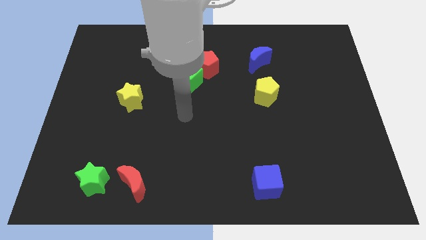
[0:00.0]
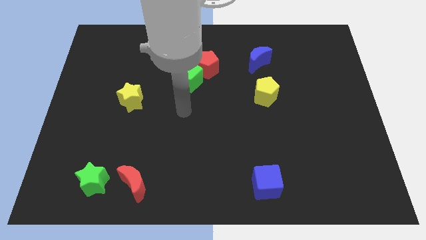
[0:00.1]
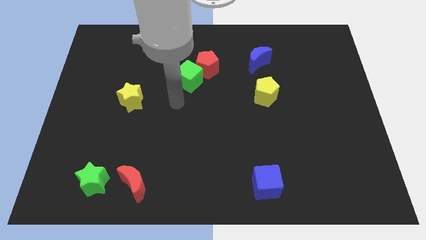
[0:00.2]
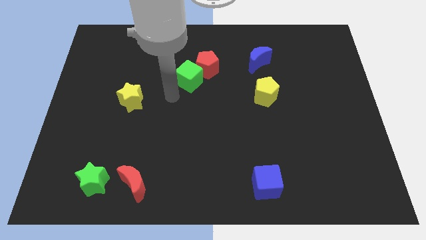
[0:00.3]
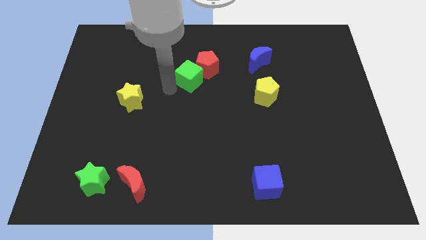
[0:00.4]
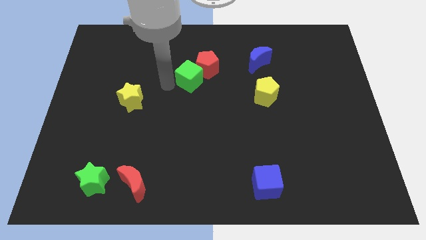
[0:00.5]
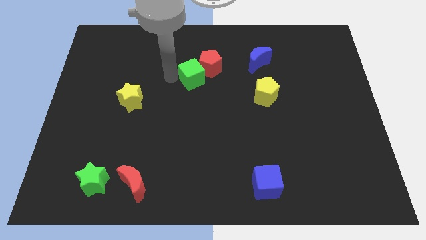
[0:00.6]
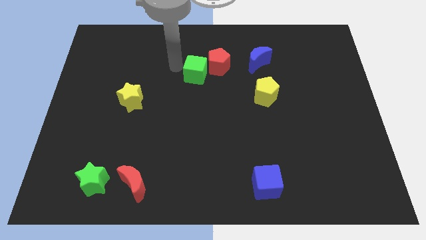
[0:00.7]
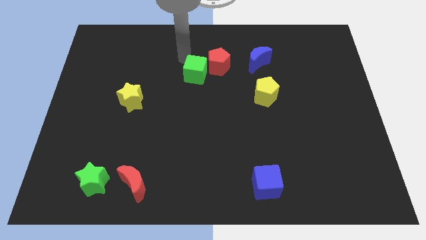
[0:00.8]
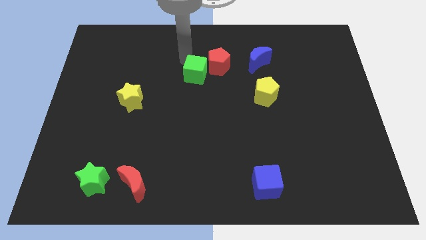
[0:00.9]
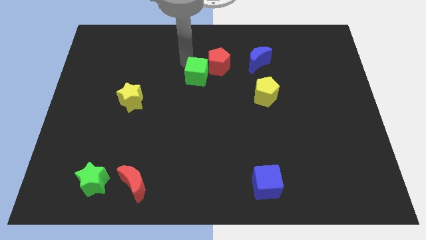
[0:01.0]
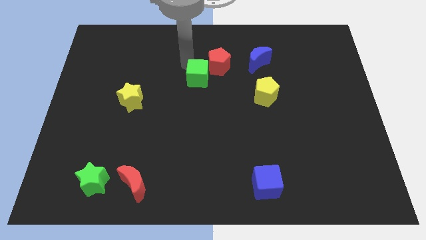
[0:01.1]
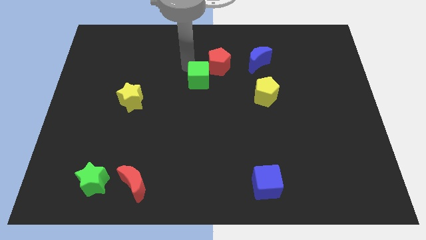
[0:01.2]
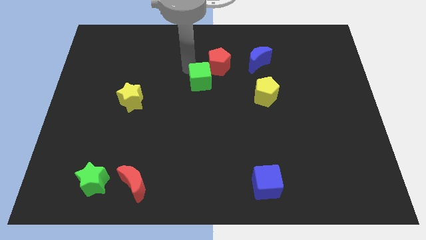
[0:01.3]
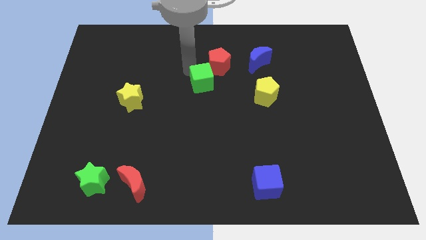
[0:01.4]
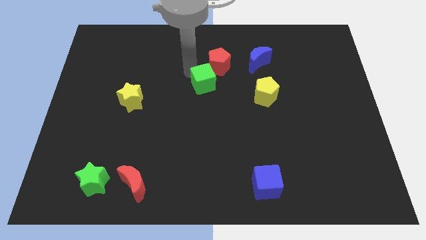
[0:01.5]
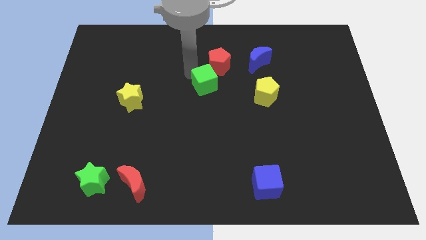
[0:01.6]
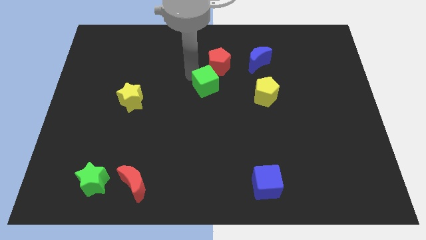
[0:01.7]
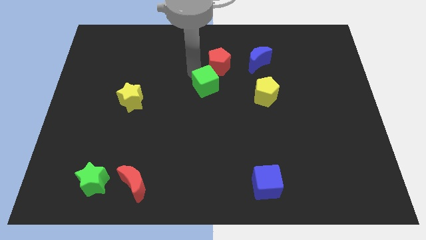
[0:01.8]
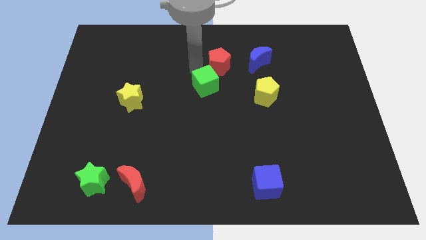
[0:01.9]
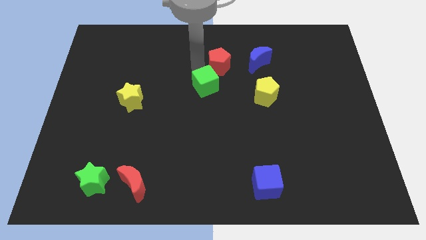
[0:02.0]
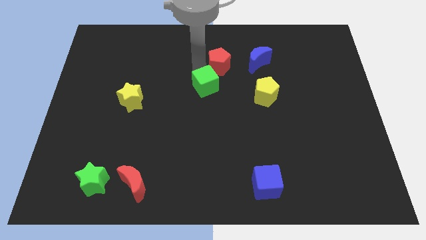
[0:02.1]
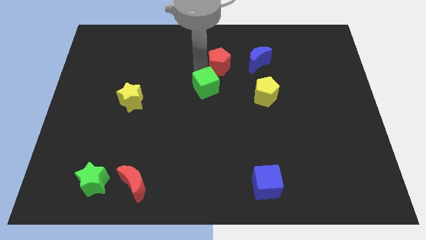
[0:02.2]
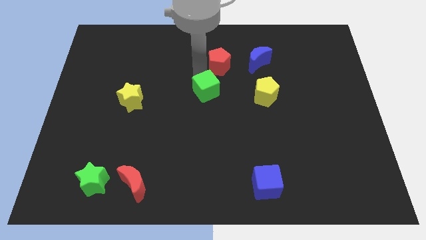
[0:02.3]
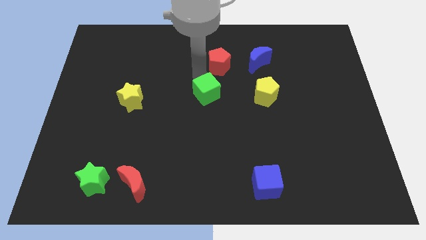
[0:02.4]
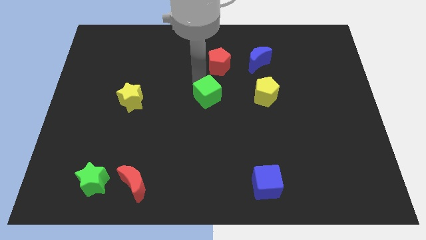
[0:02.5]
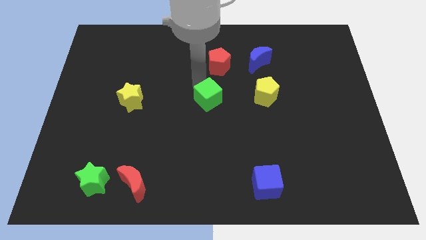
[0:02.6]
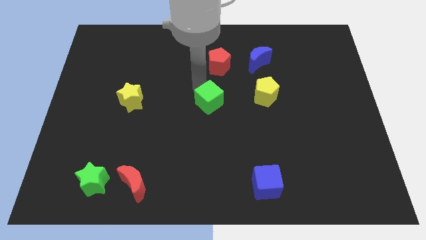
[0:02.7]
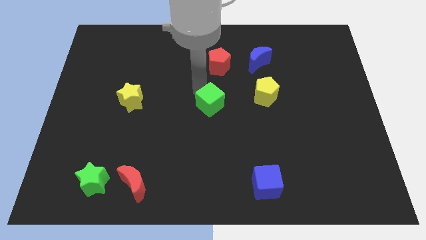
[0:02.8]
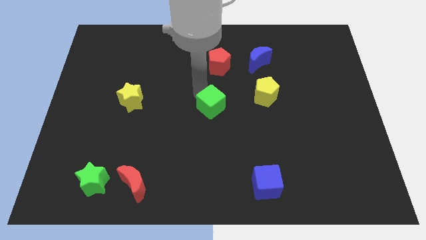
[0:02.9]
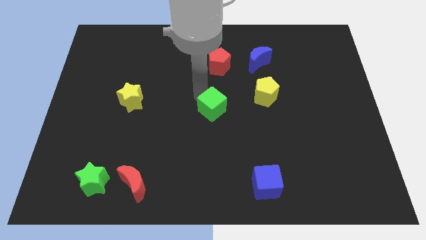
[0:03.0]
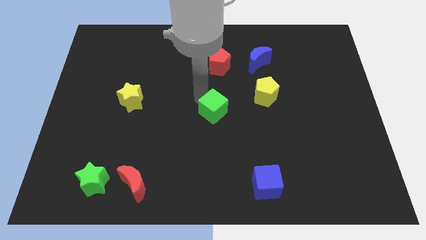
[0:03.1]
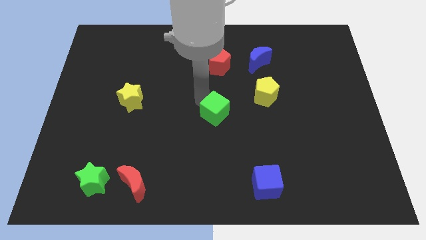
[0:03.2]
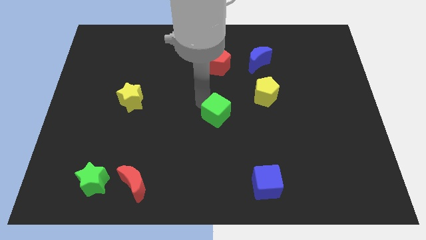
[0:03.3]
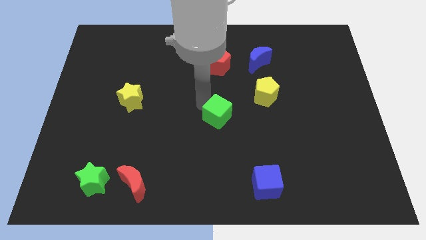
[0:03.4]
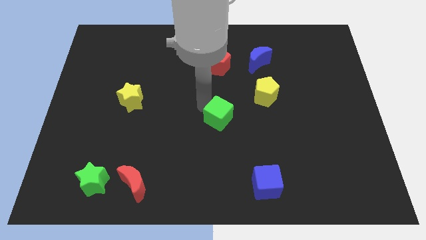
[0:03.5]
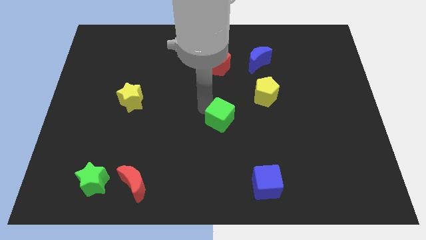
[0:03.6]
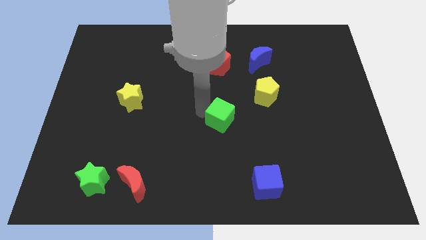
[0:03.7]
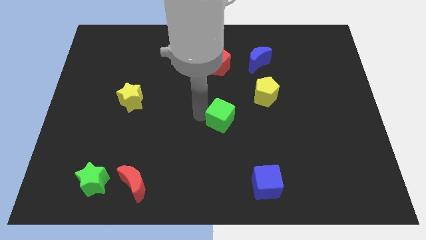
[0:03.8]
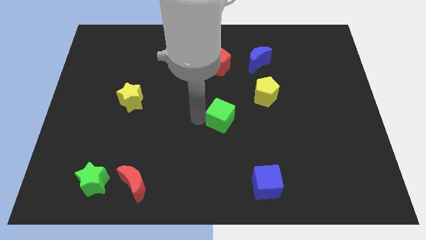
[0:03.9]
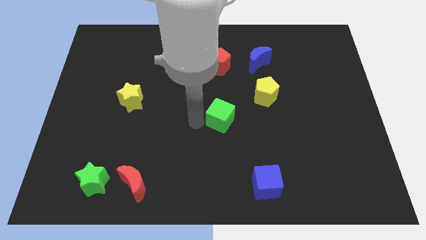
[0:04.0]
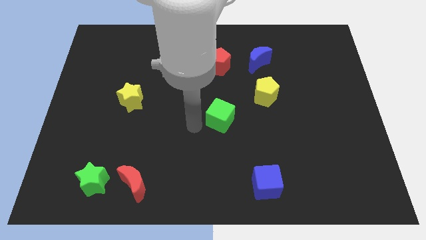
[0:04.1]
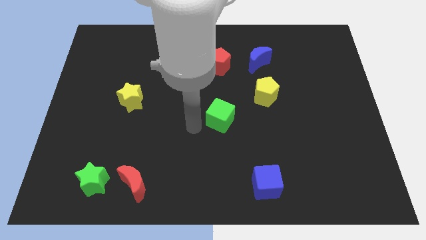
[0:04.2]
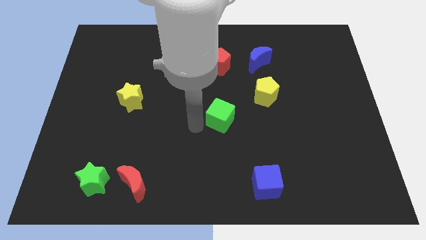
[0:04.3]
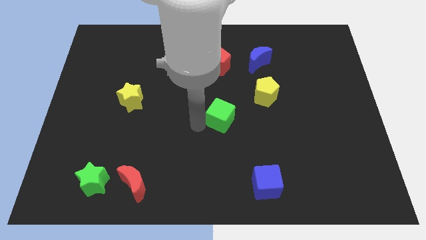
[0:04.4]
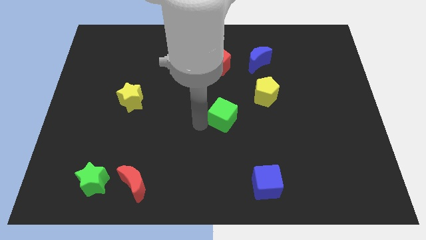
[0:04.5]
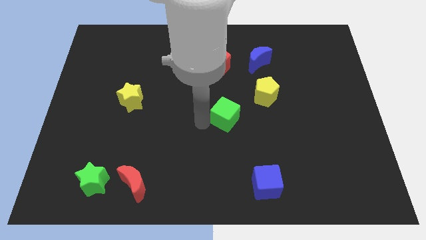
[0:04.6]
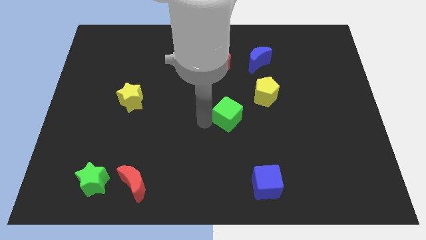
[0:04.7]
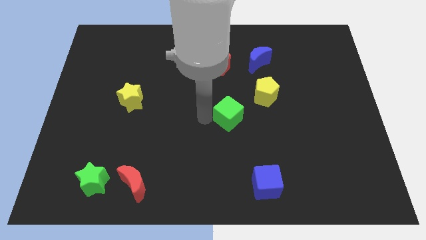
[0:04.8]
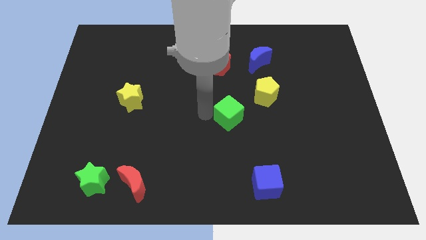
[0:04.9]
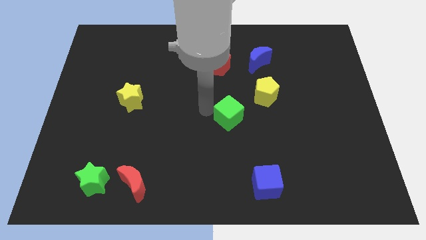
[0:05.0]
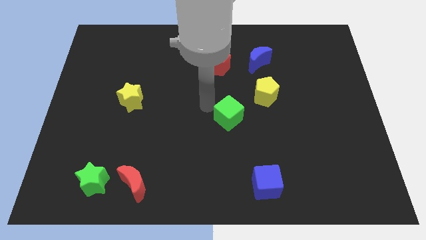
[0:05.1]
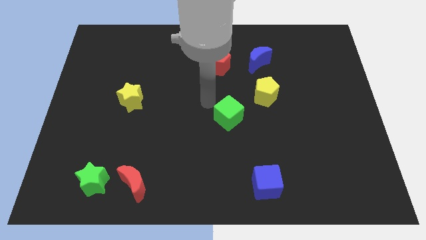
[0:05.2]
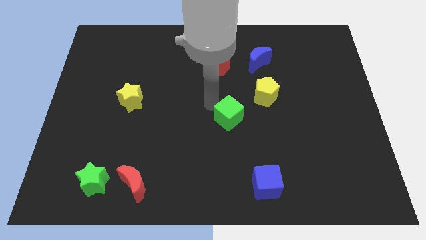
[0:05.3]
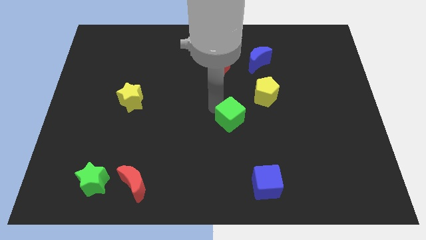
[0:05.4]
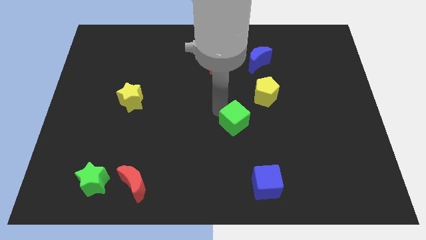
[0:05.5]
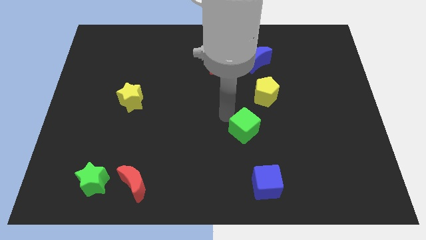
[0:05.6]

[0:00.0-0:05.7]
slide the green cube above the blue cube

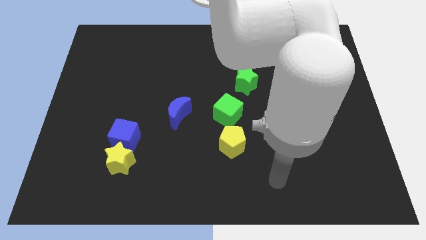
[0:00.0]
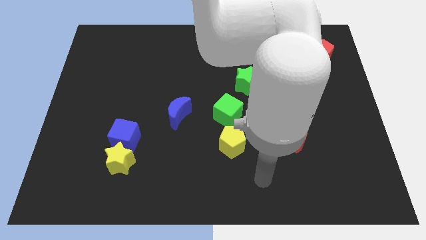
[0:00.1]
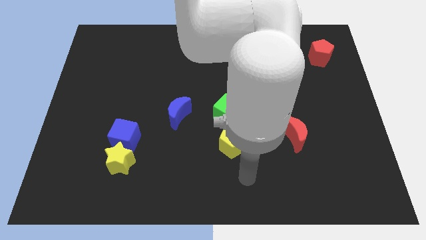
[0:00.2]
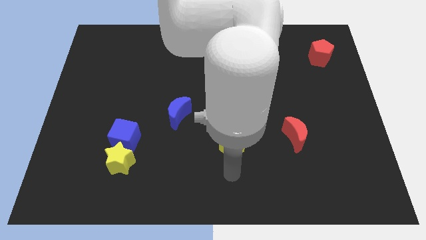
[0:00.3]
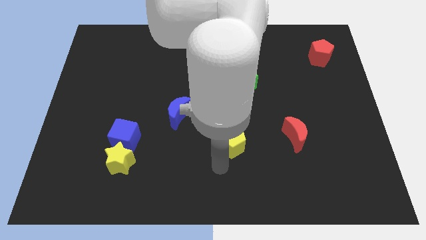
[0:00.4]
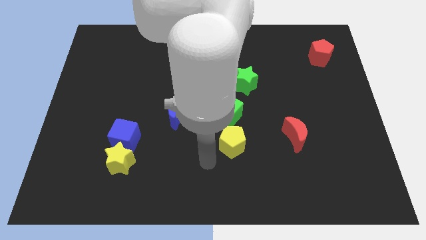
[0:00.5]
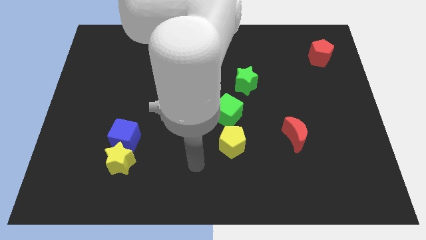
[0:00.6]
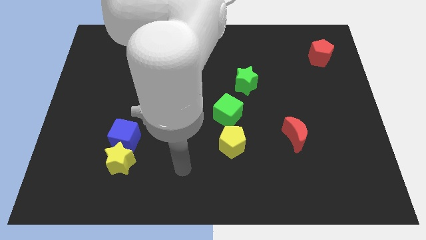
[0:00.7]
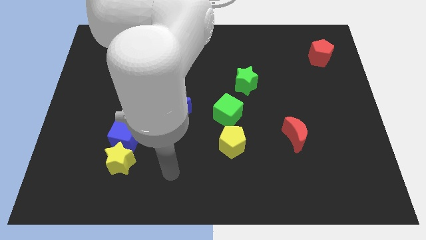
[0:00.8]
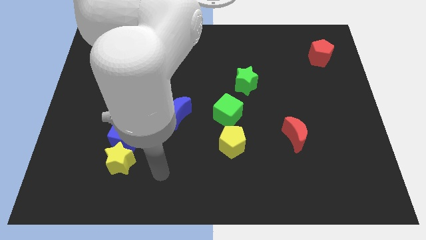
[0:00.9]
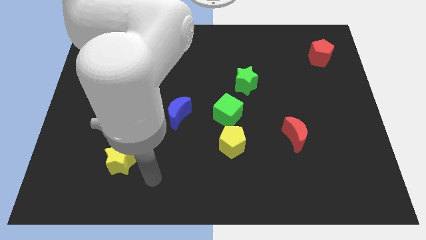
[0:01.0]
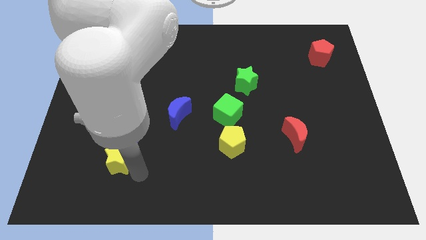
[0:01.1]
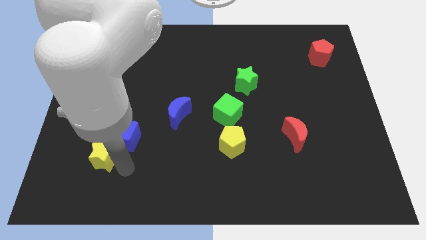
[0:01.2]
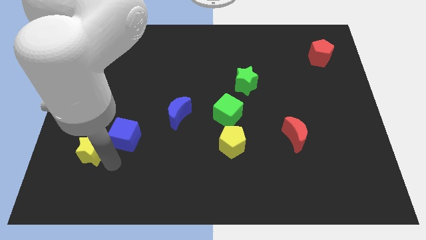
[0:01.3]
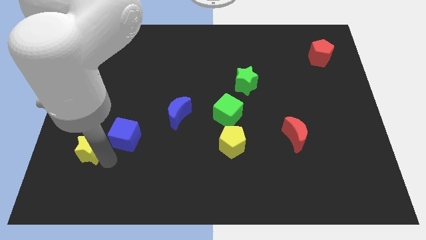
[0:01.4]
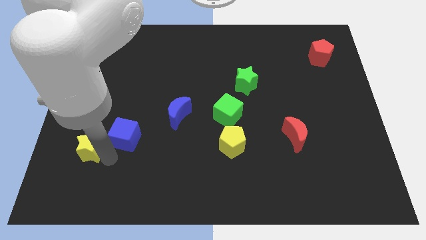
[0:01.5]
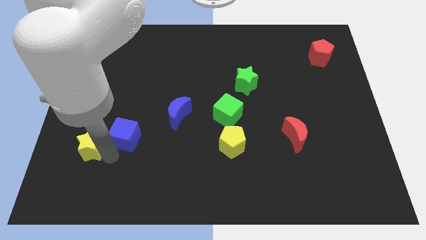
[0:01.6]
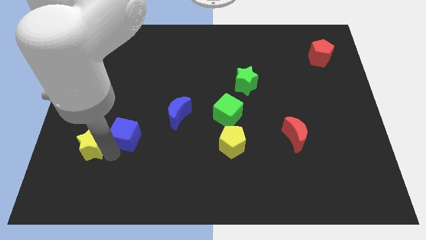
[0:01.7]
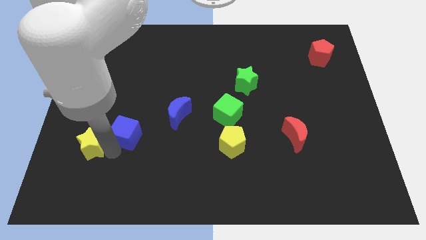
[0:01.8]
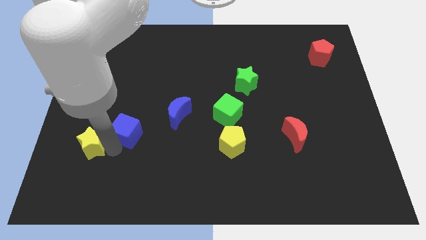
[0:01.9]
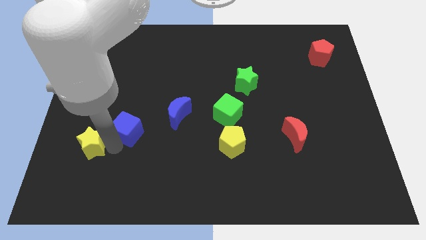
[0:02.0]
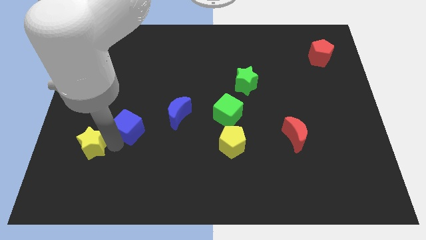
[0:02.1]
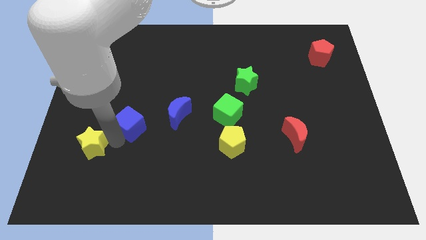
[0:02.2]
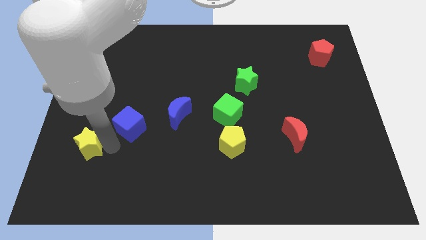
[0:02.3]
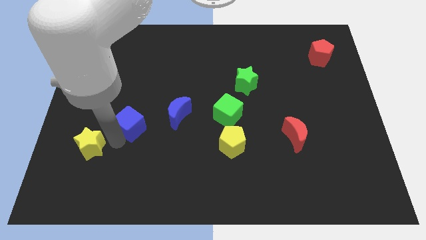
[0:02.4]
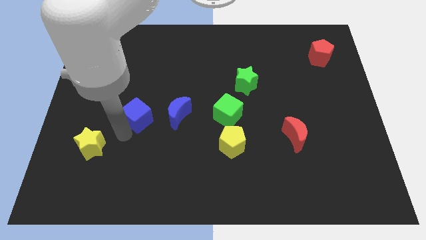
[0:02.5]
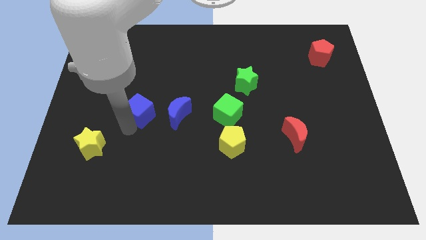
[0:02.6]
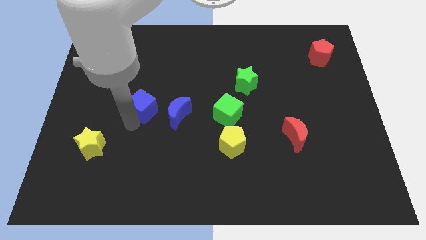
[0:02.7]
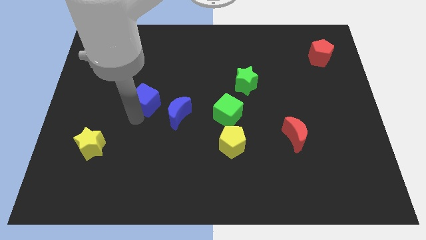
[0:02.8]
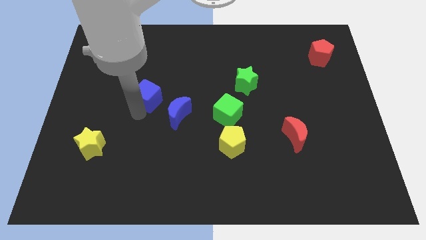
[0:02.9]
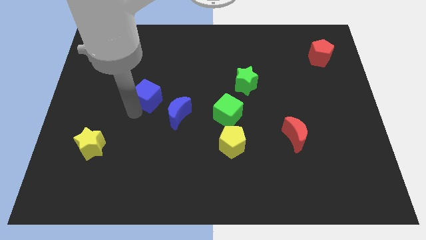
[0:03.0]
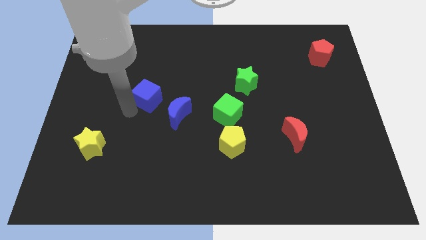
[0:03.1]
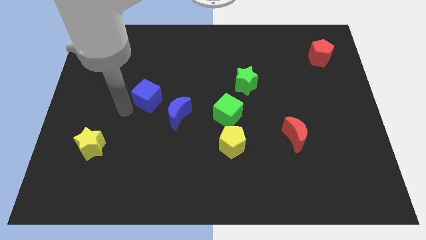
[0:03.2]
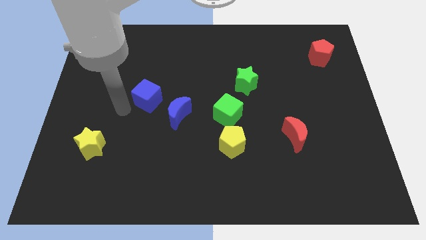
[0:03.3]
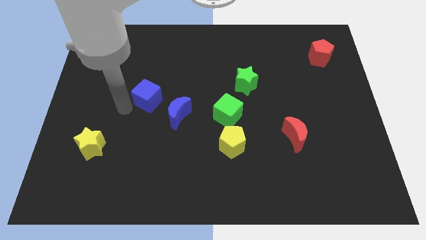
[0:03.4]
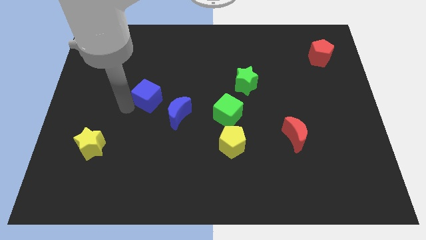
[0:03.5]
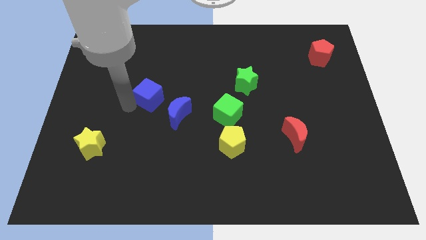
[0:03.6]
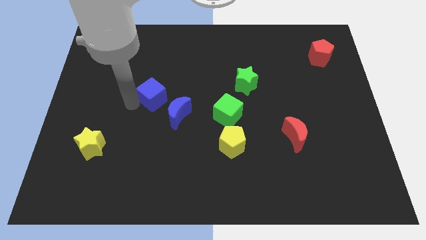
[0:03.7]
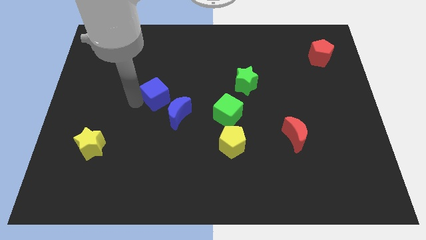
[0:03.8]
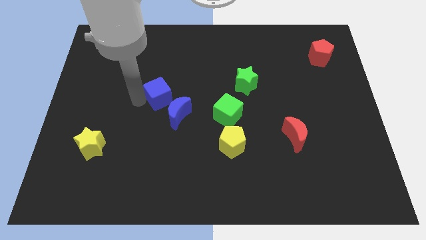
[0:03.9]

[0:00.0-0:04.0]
slide the blue cube above the blue moon
